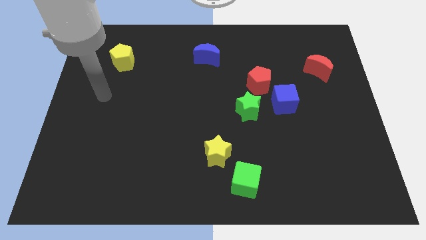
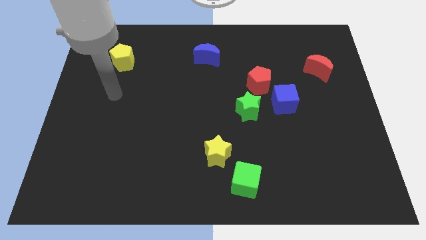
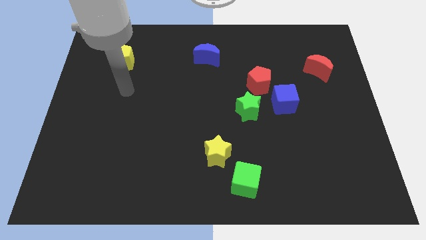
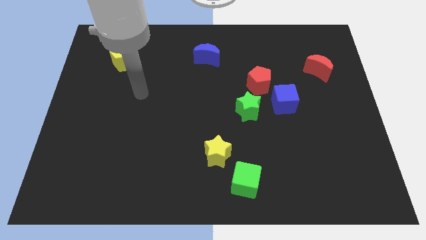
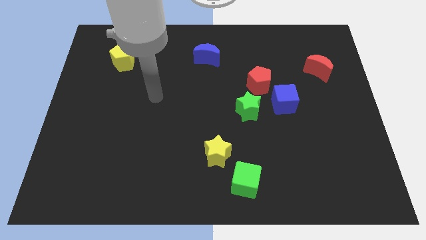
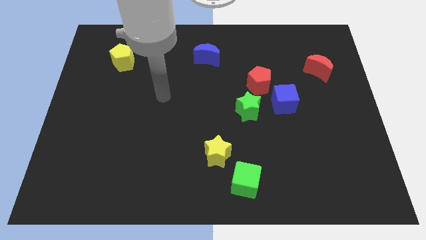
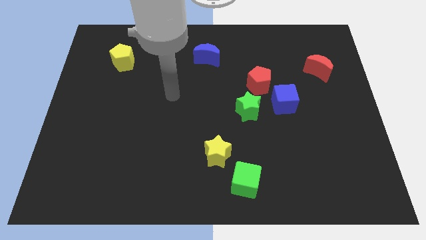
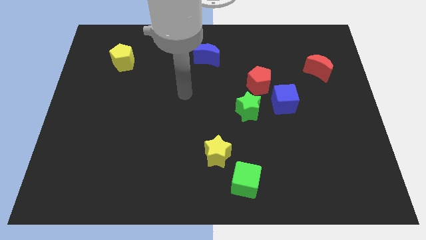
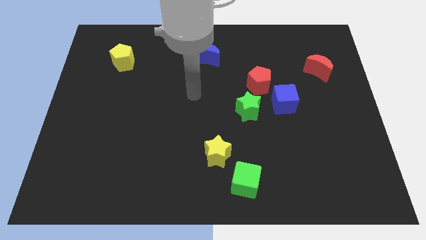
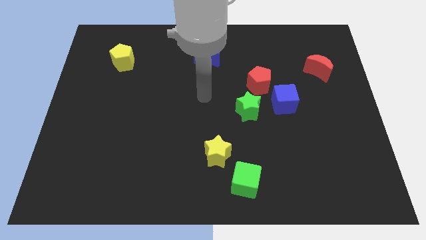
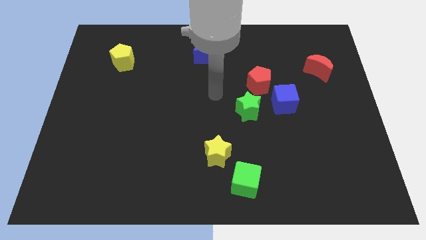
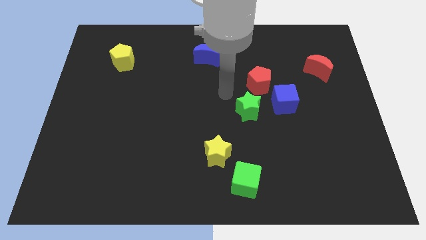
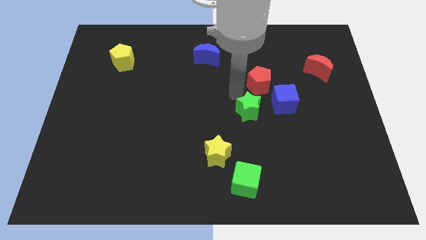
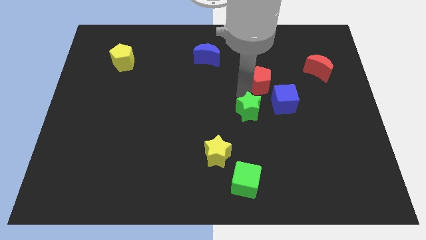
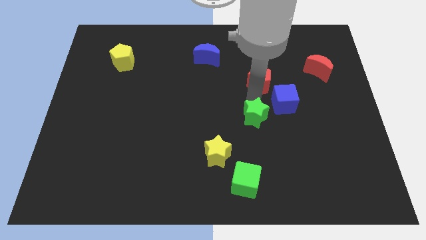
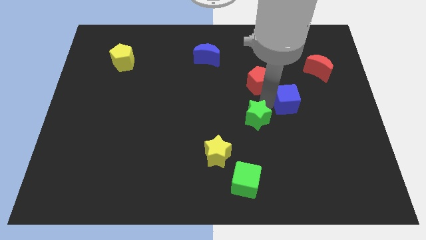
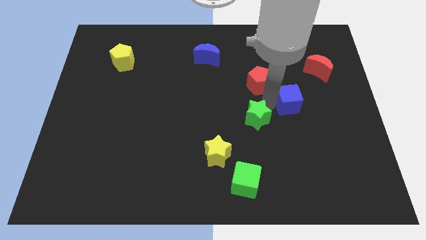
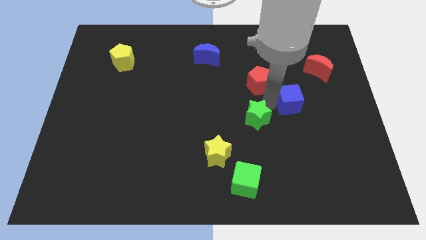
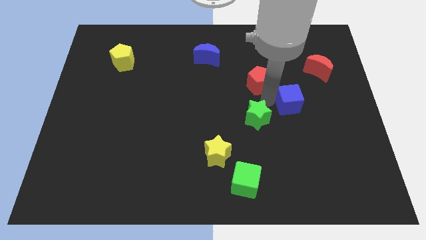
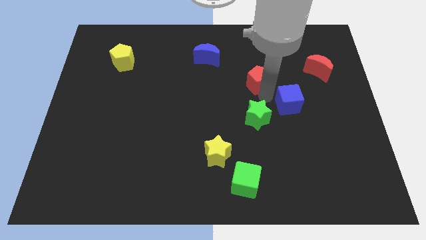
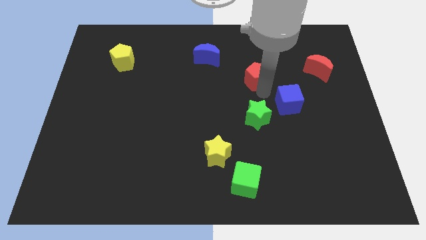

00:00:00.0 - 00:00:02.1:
move the red pentagon away from the blue cube and green star

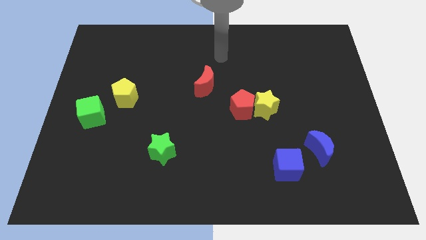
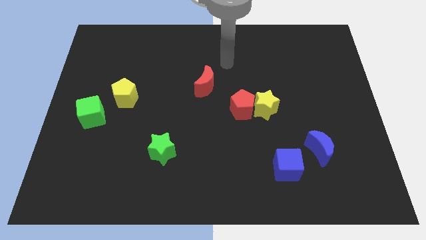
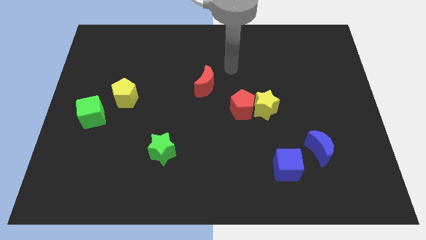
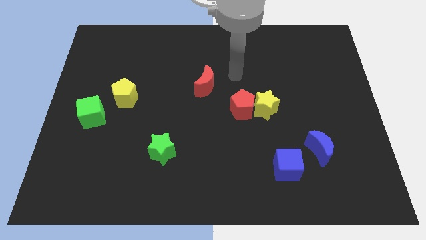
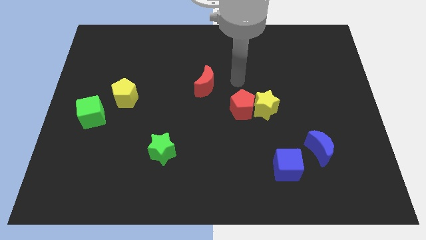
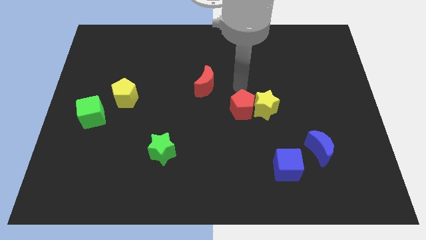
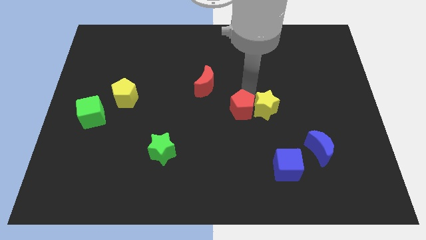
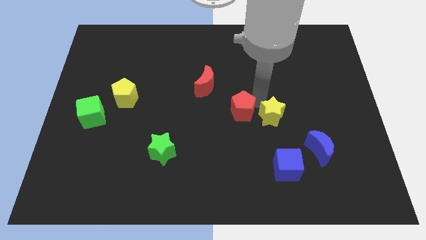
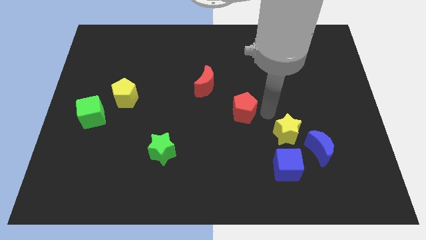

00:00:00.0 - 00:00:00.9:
separate the red pentagon from the yellow star

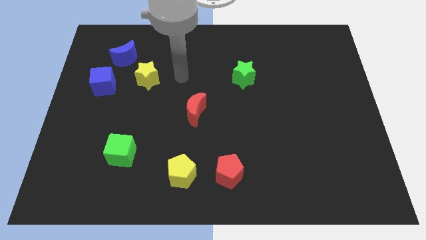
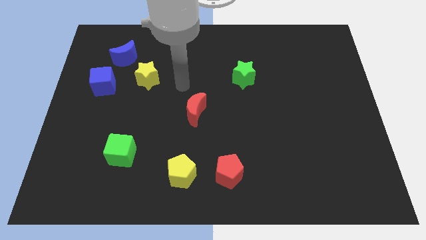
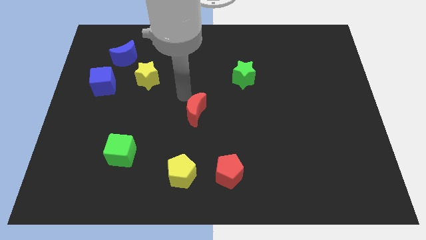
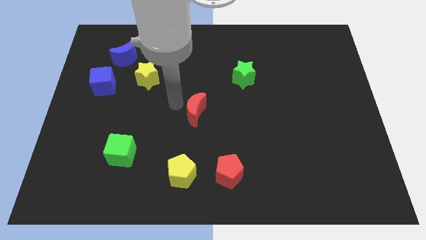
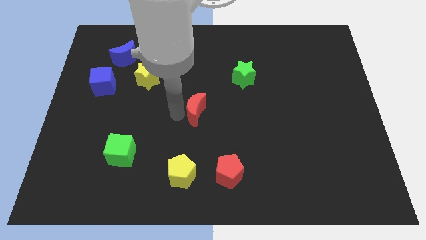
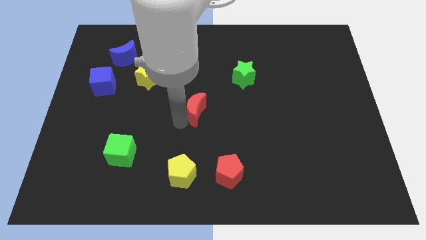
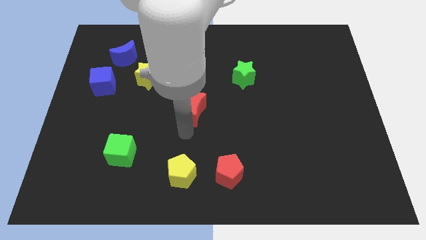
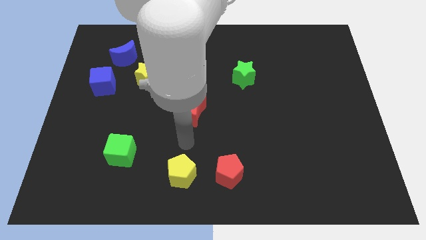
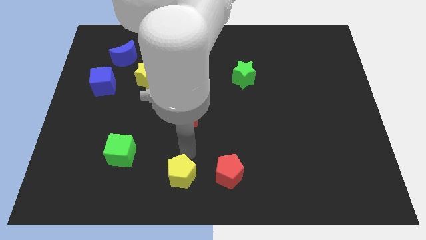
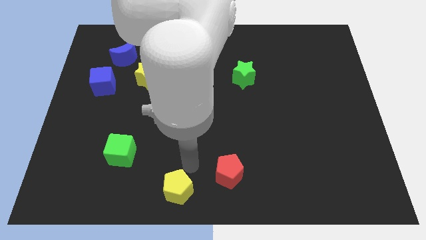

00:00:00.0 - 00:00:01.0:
pull the red pentagon apart from the yellow pentagon

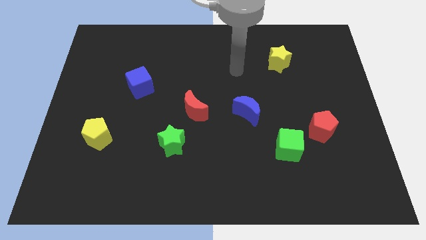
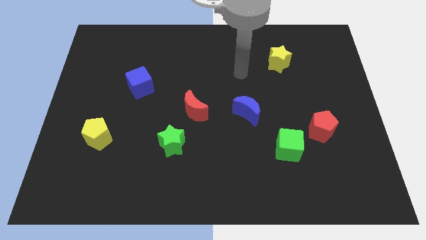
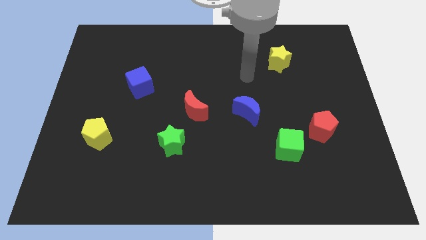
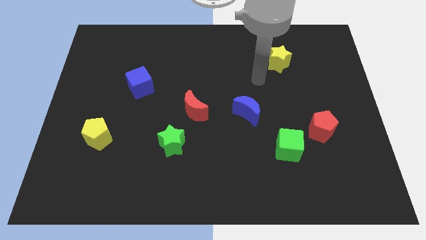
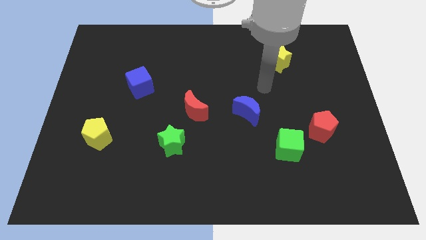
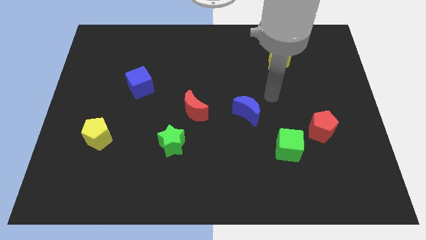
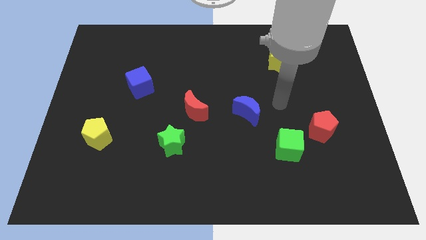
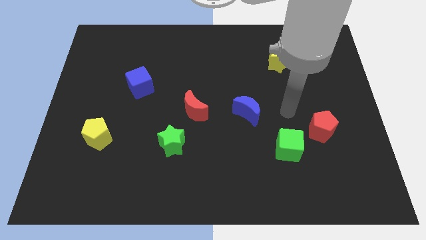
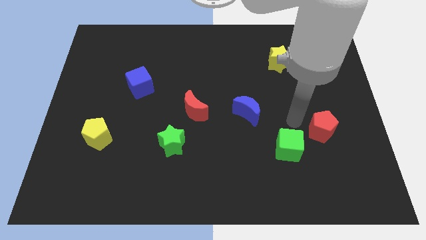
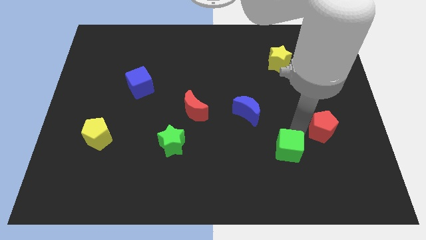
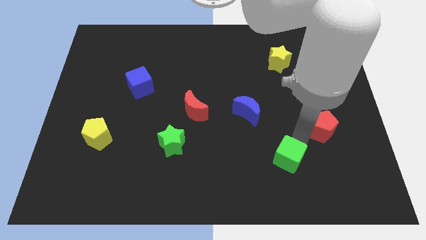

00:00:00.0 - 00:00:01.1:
move the red pentagon away from the green cube

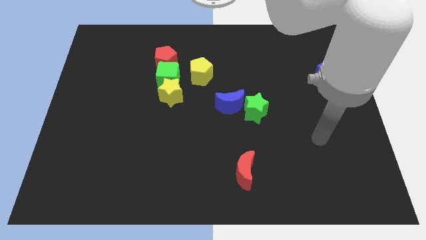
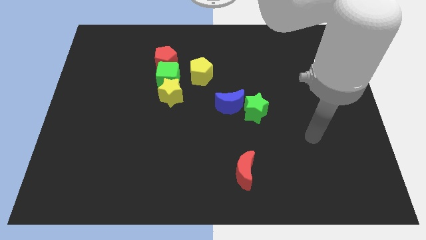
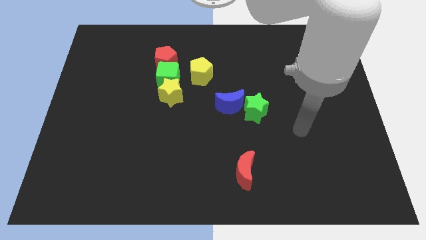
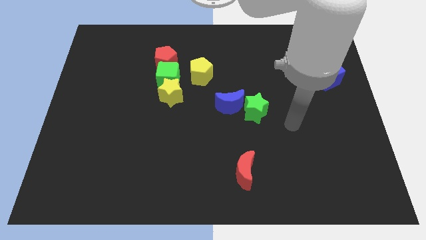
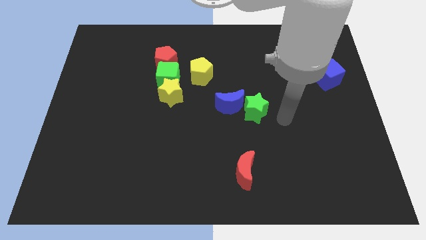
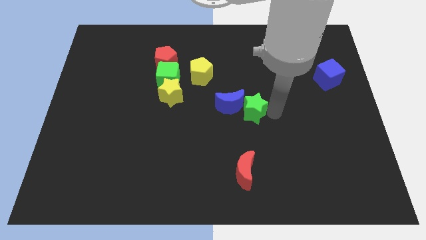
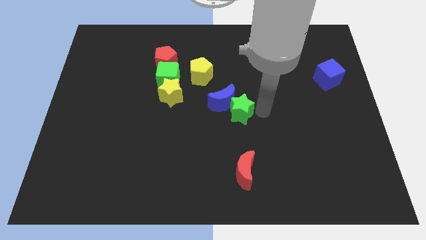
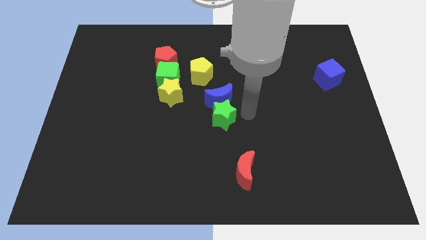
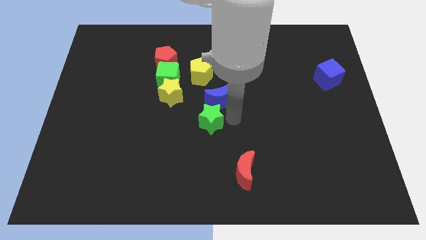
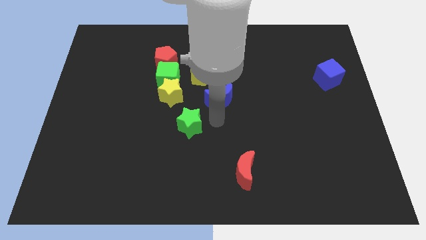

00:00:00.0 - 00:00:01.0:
move the blue moon away from the green star

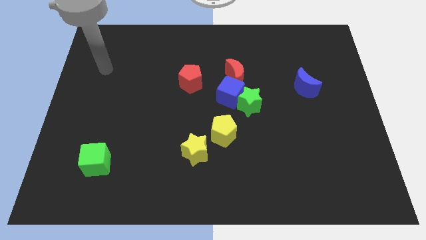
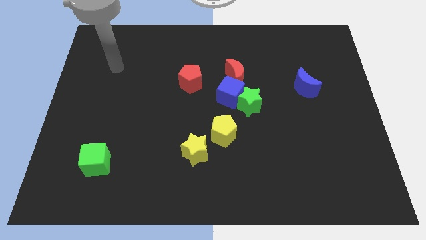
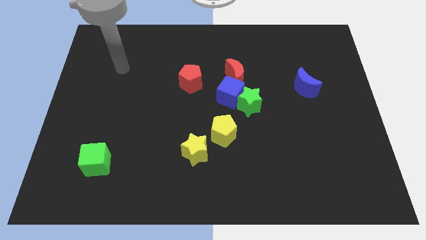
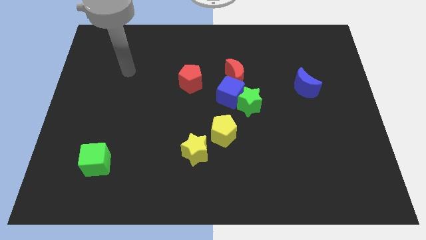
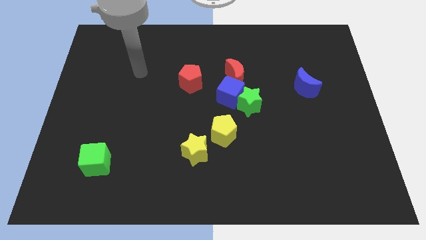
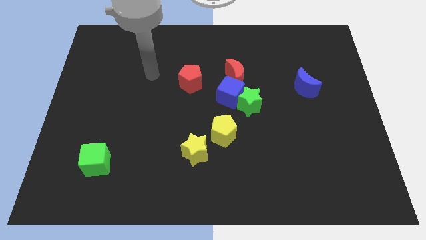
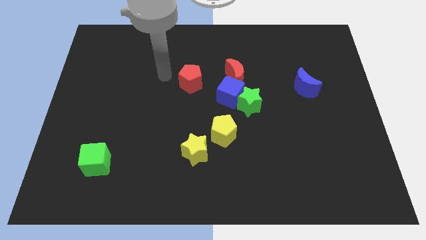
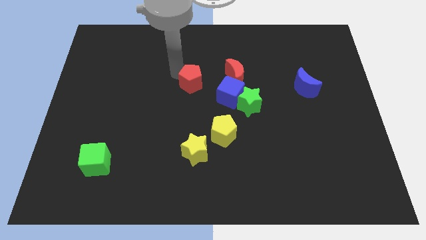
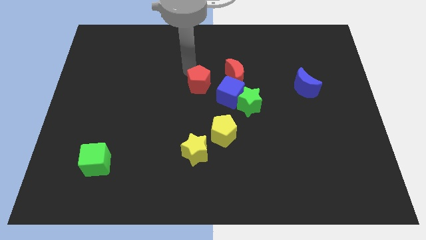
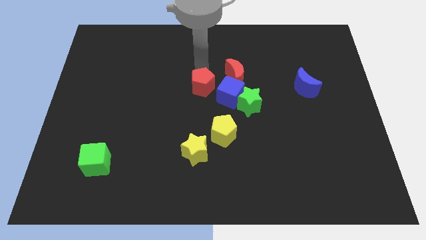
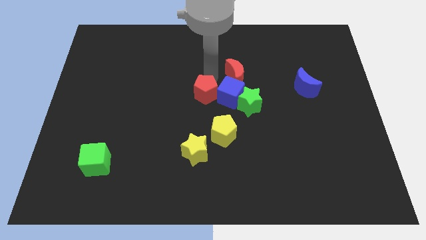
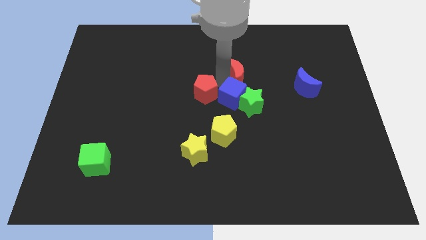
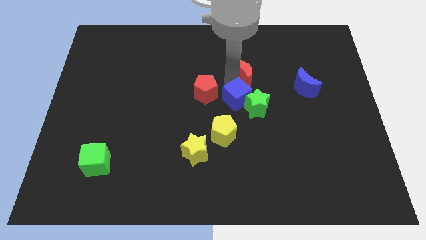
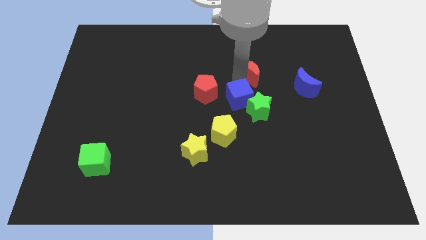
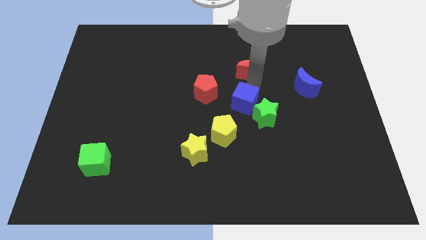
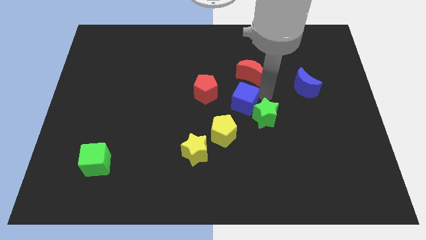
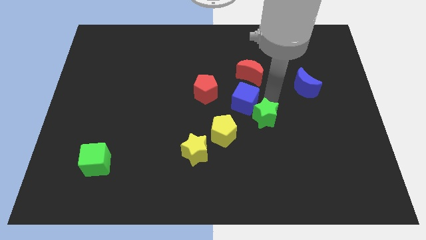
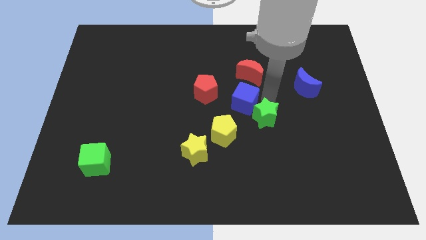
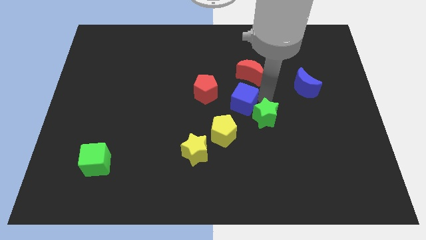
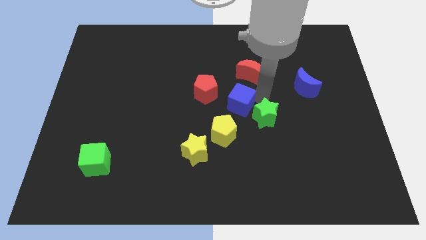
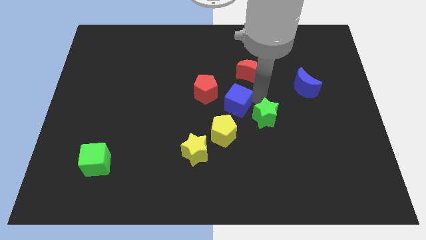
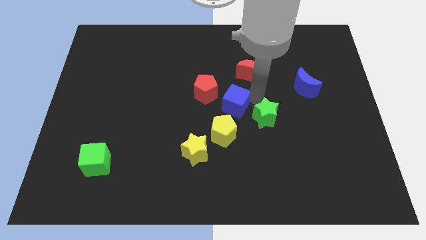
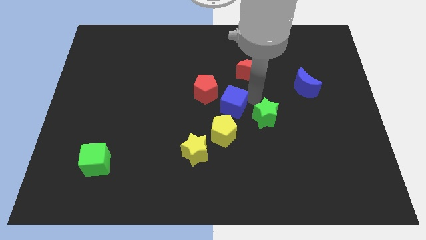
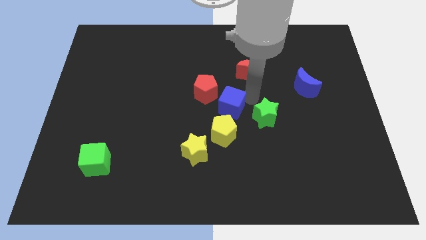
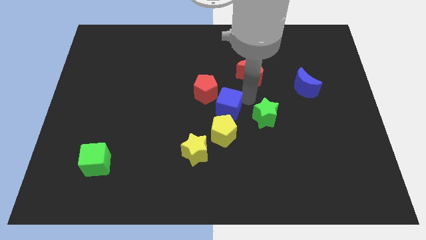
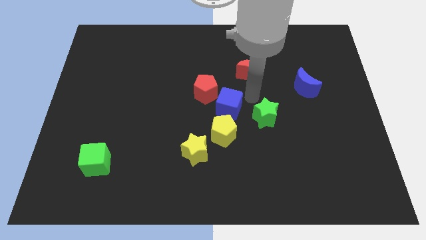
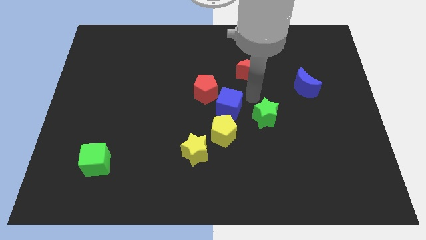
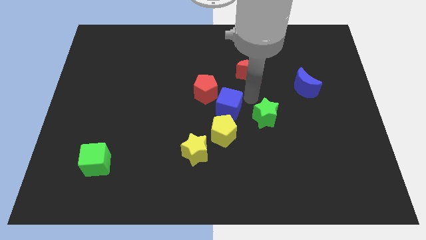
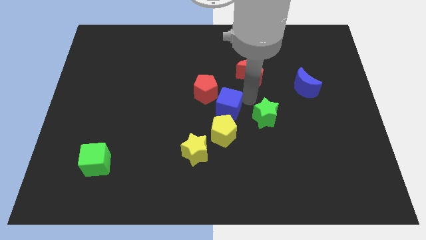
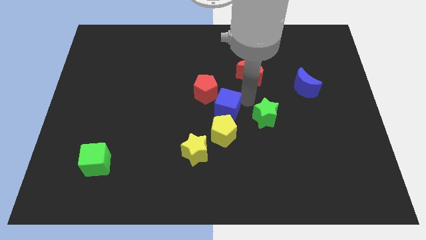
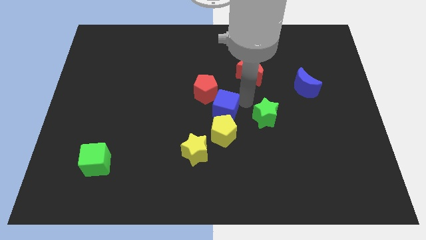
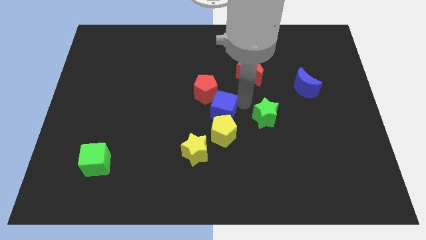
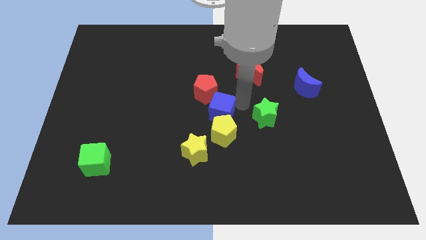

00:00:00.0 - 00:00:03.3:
pull the blue cube apart from the green star and red moon
